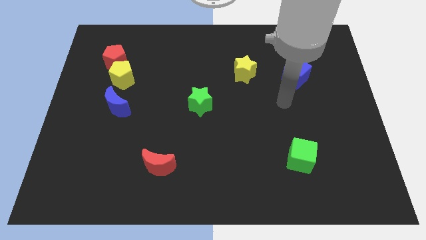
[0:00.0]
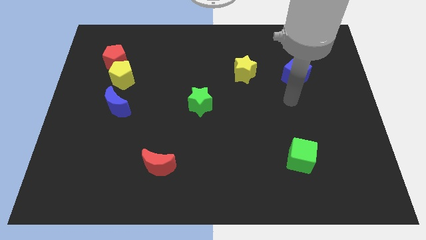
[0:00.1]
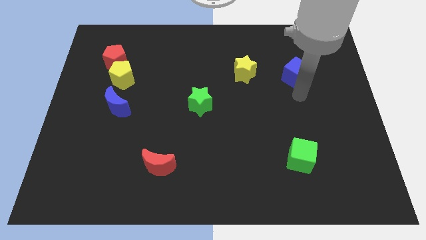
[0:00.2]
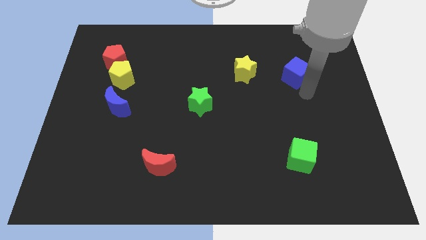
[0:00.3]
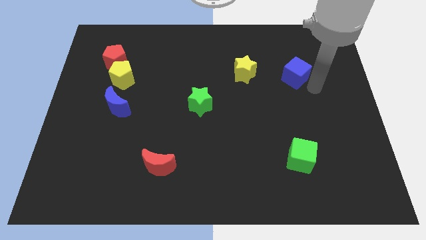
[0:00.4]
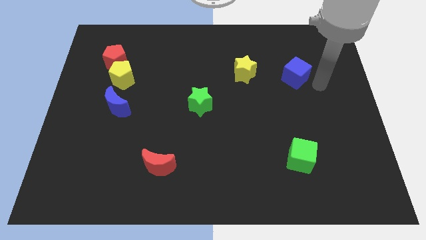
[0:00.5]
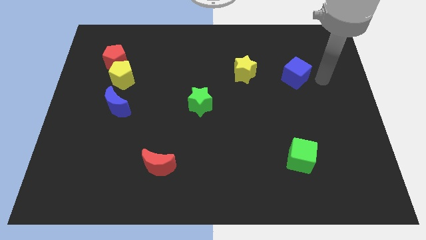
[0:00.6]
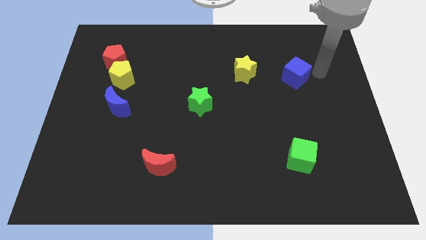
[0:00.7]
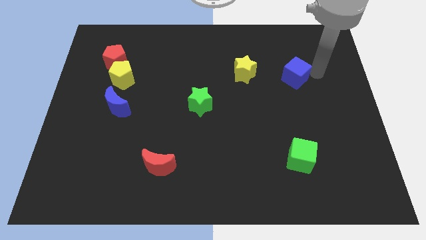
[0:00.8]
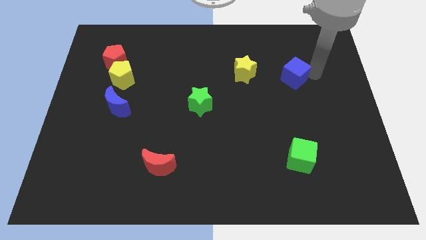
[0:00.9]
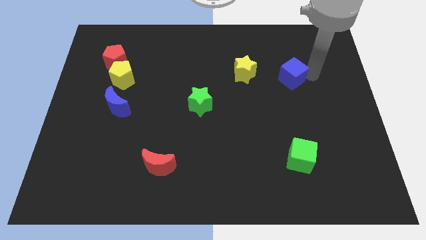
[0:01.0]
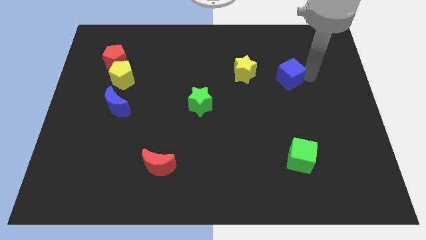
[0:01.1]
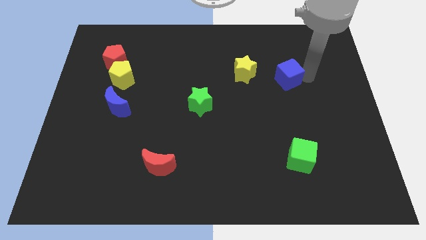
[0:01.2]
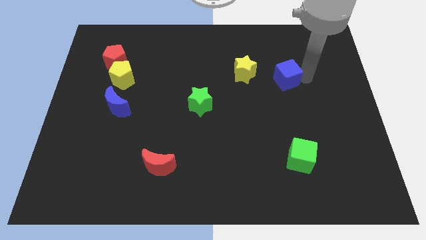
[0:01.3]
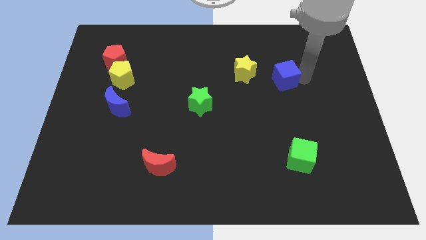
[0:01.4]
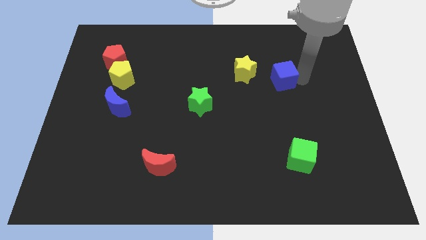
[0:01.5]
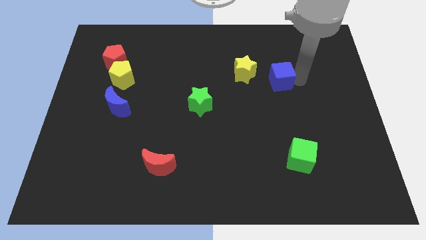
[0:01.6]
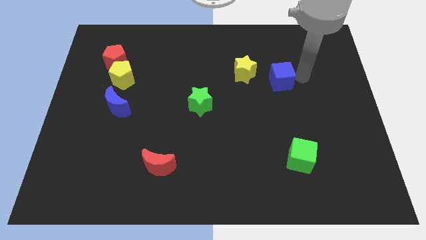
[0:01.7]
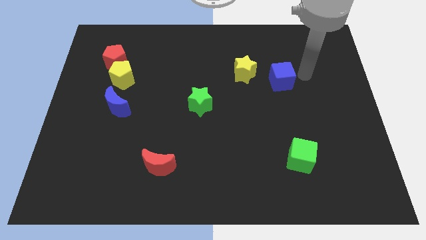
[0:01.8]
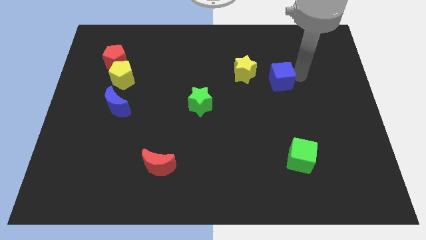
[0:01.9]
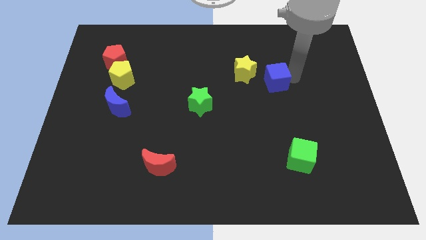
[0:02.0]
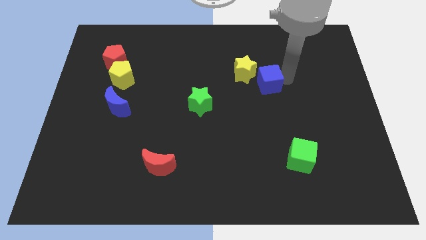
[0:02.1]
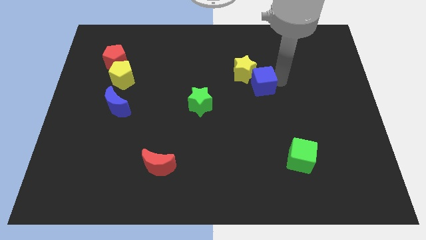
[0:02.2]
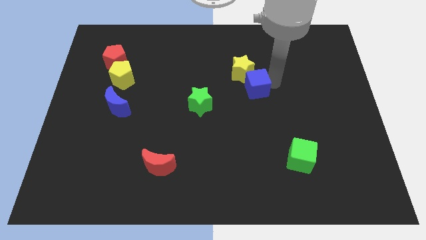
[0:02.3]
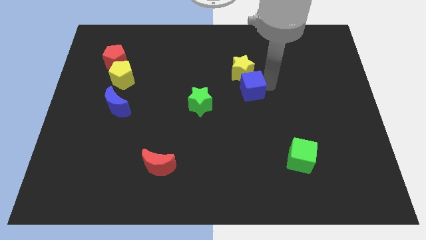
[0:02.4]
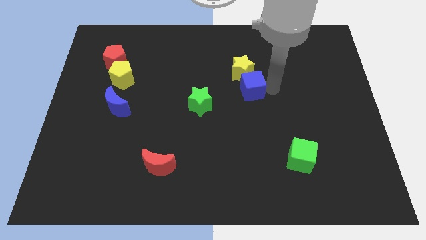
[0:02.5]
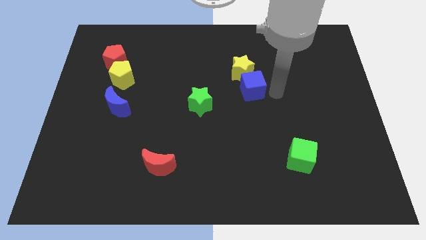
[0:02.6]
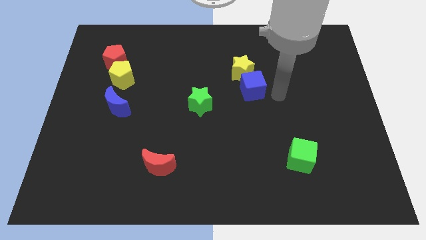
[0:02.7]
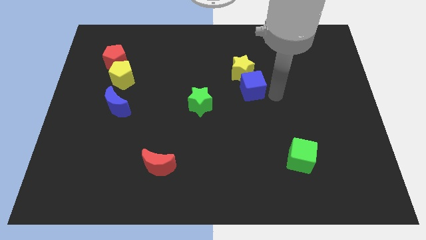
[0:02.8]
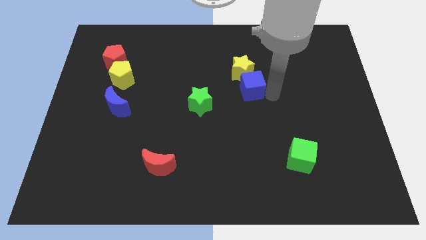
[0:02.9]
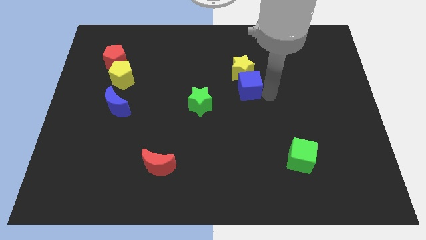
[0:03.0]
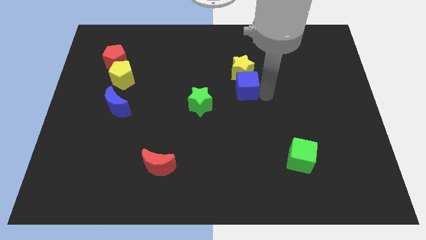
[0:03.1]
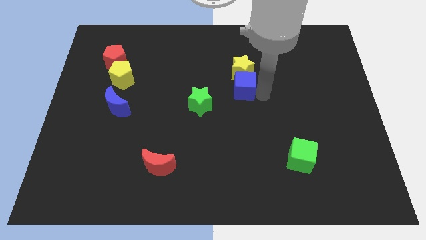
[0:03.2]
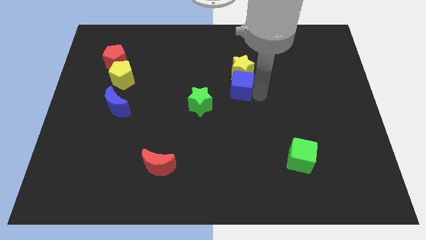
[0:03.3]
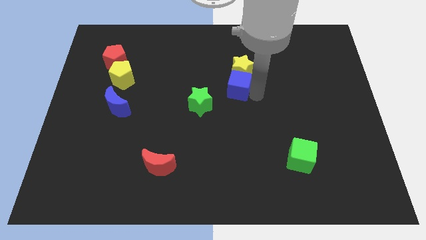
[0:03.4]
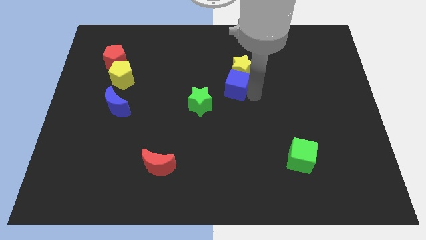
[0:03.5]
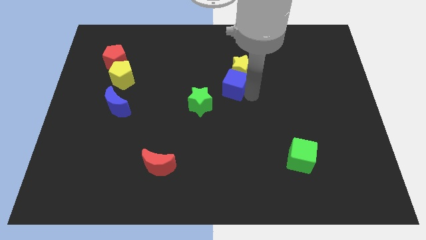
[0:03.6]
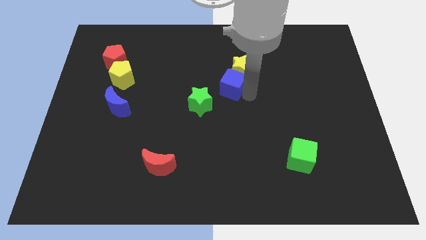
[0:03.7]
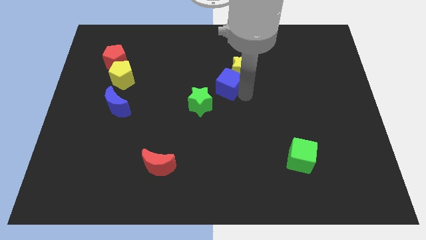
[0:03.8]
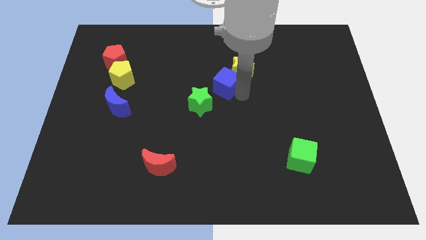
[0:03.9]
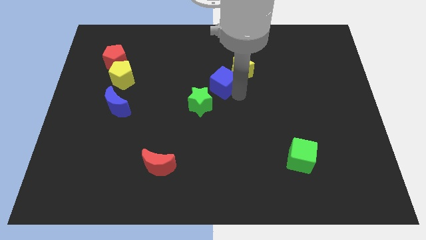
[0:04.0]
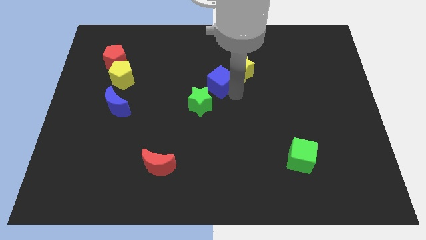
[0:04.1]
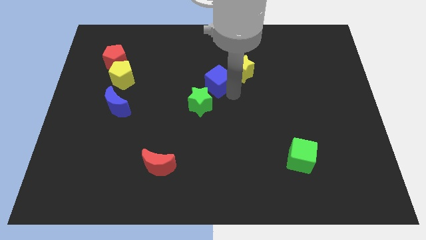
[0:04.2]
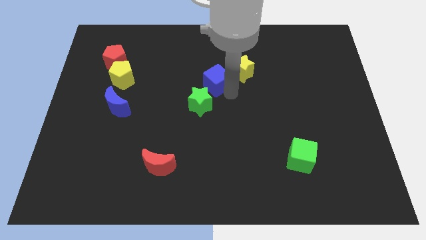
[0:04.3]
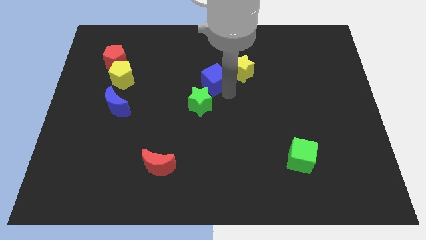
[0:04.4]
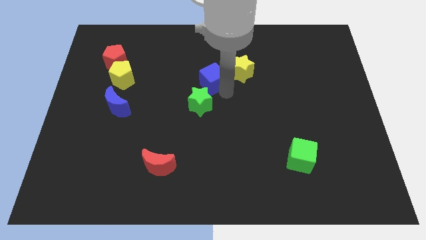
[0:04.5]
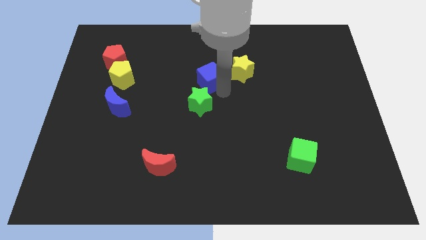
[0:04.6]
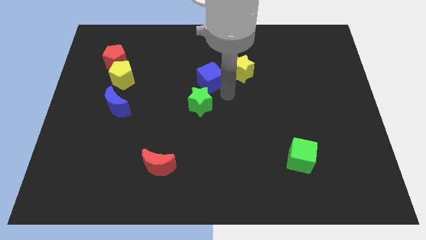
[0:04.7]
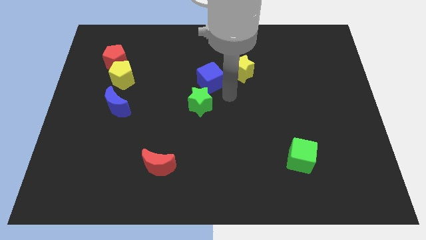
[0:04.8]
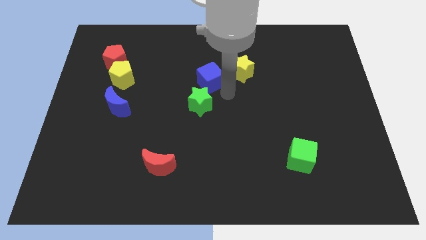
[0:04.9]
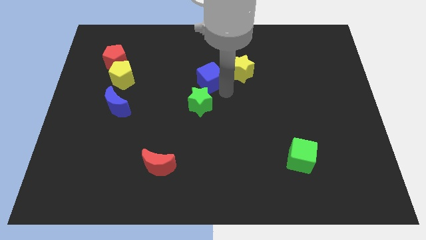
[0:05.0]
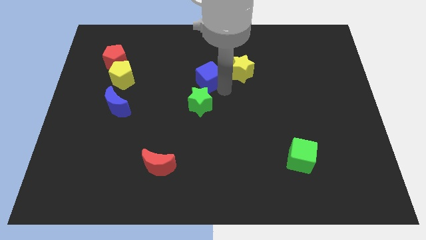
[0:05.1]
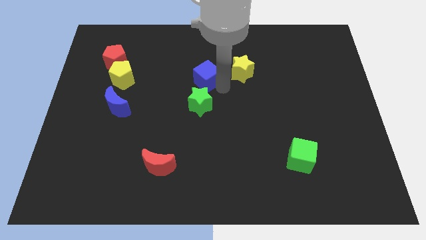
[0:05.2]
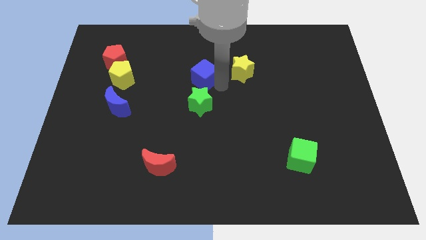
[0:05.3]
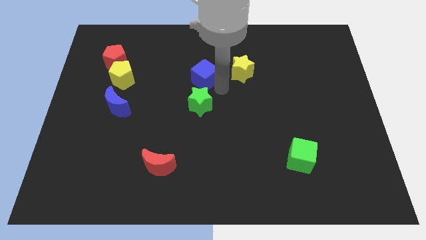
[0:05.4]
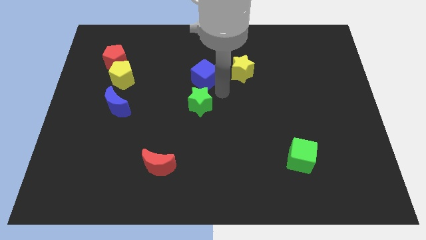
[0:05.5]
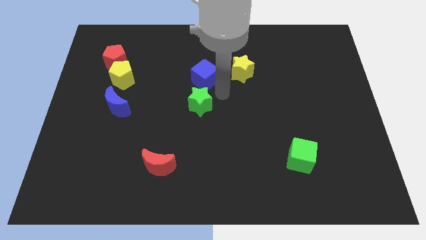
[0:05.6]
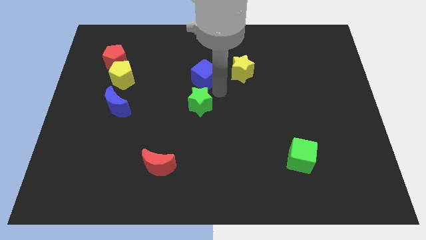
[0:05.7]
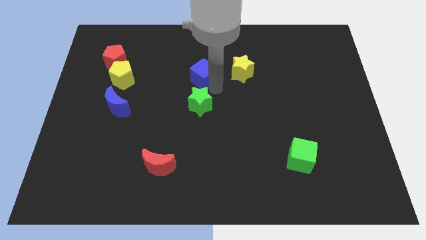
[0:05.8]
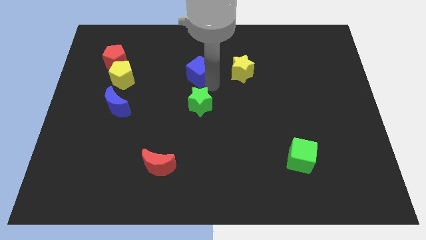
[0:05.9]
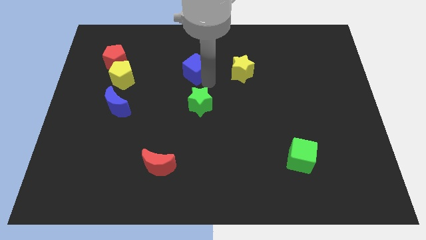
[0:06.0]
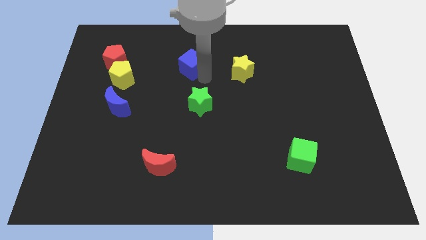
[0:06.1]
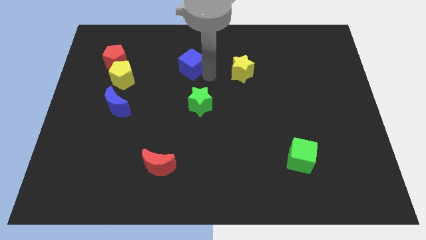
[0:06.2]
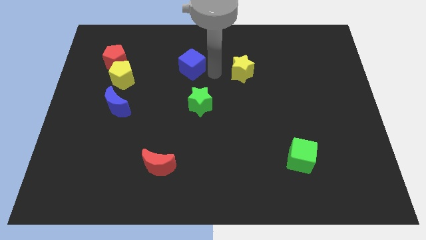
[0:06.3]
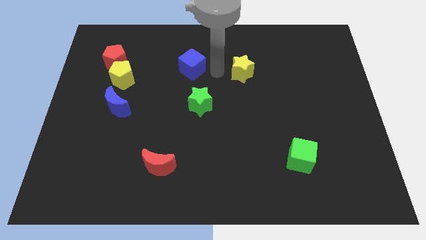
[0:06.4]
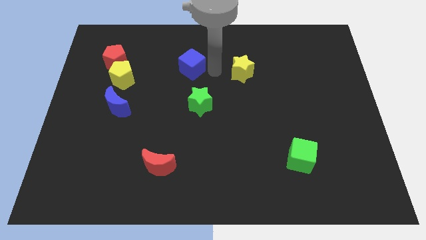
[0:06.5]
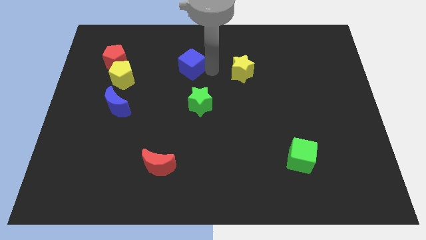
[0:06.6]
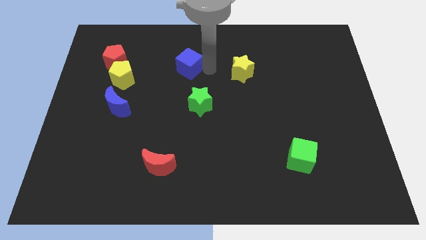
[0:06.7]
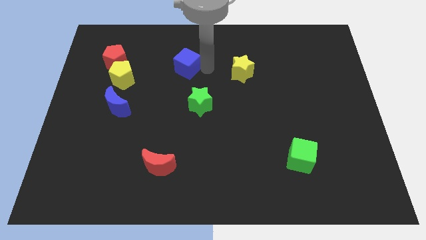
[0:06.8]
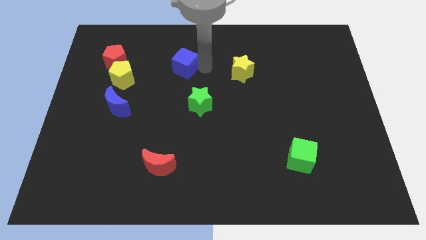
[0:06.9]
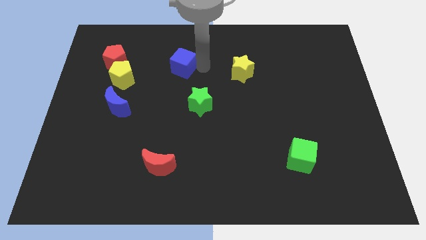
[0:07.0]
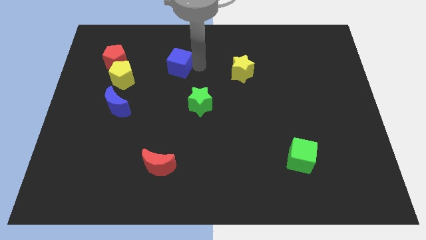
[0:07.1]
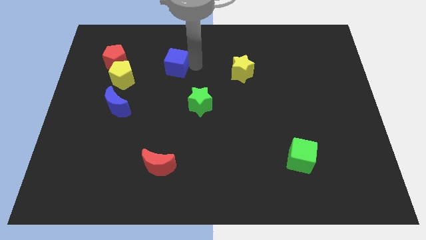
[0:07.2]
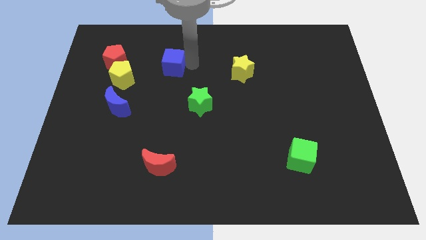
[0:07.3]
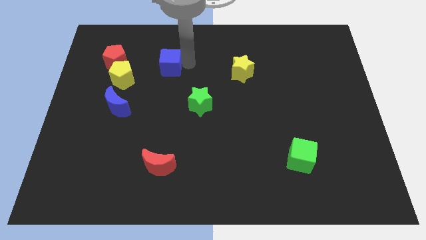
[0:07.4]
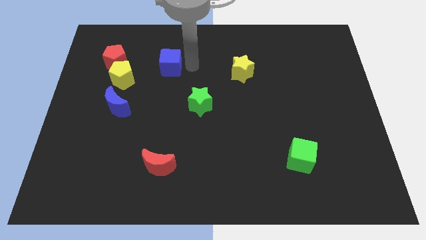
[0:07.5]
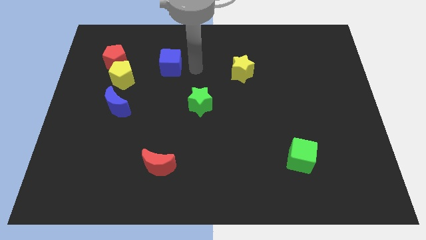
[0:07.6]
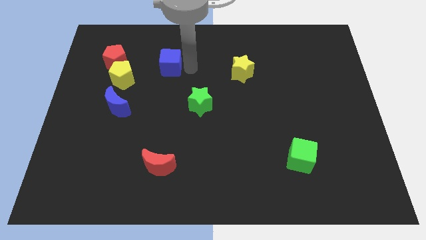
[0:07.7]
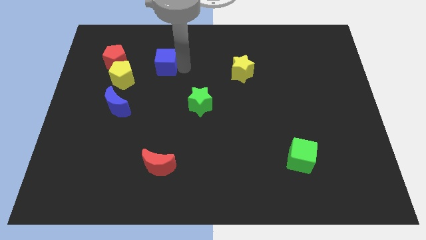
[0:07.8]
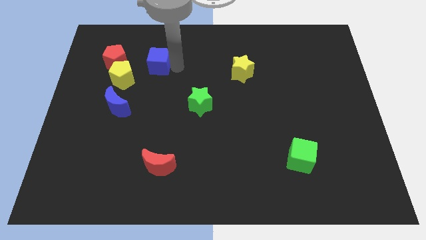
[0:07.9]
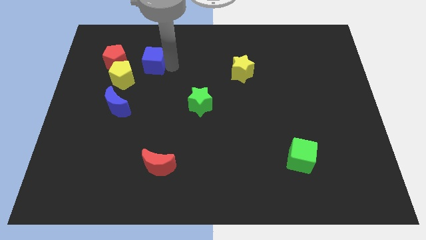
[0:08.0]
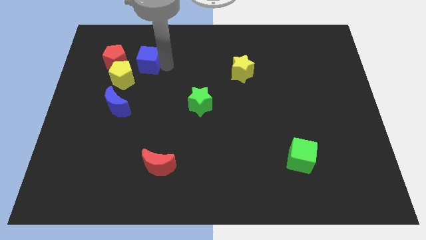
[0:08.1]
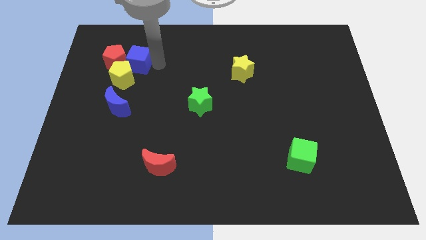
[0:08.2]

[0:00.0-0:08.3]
put the blue cube towards the red pentagon
